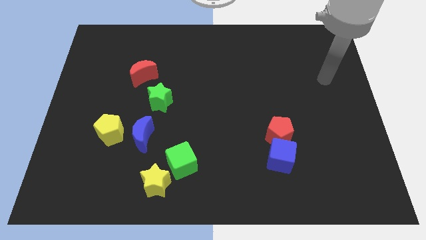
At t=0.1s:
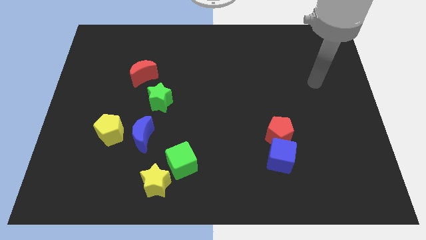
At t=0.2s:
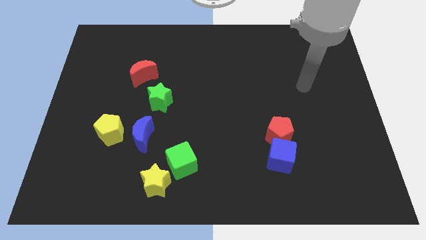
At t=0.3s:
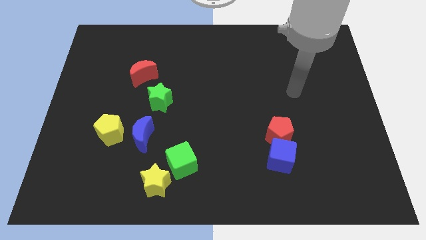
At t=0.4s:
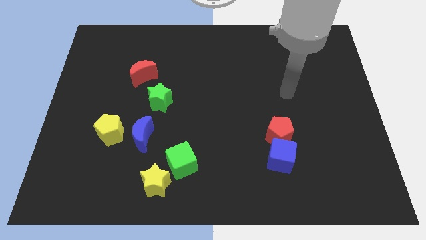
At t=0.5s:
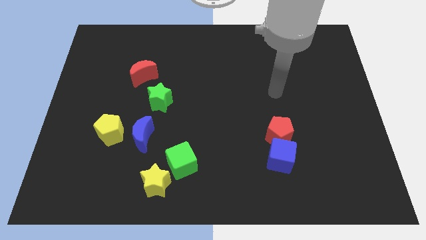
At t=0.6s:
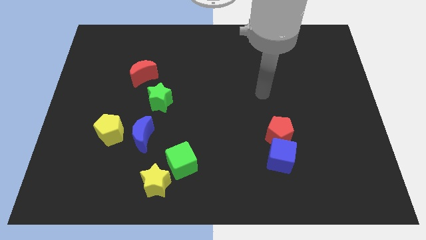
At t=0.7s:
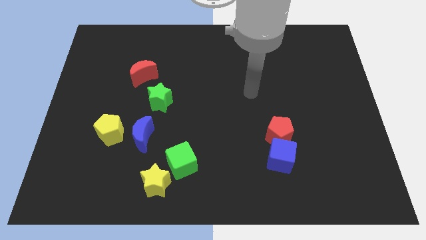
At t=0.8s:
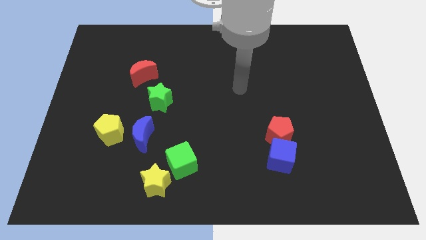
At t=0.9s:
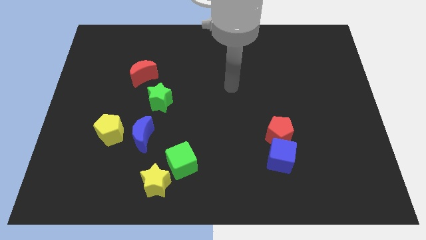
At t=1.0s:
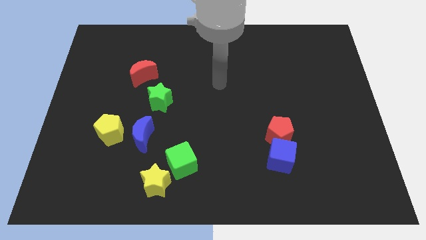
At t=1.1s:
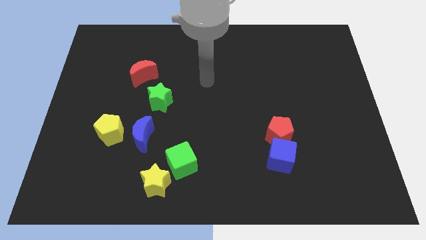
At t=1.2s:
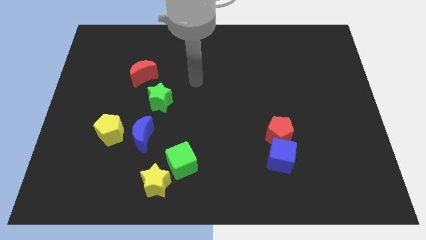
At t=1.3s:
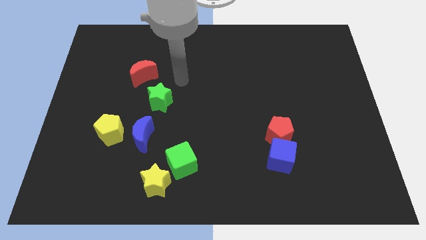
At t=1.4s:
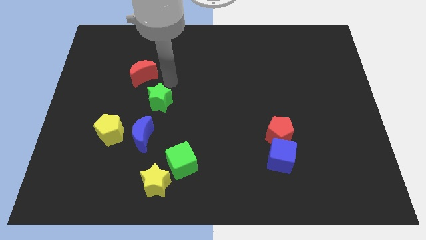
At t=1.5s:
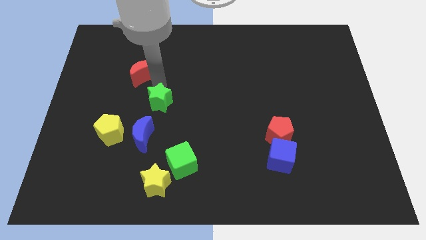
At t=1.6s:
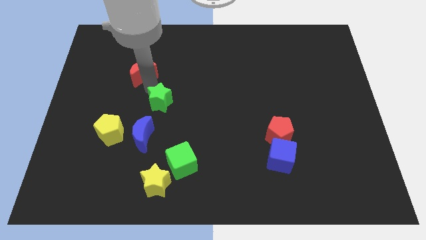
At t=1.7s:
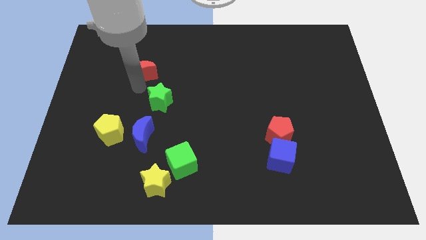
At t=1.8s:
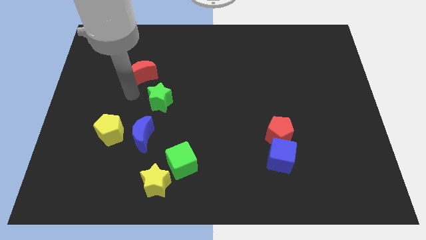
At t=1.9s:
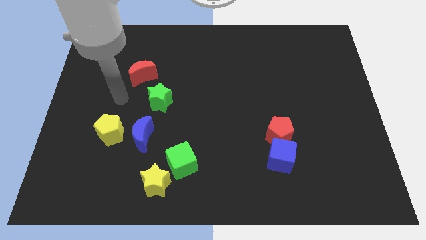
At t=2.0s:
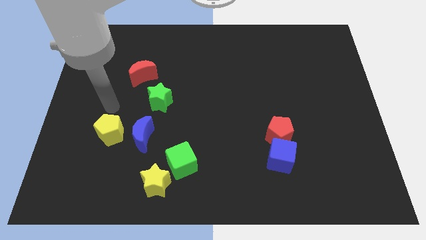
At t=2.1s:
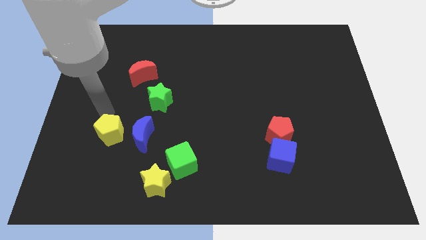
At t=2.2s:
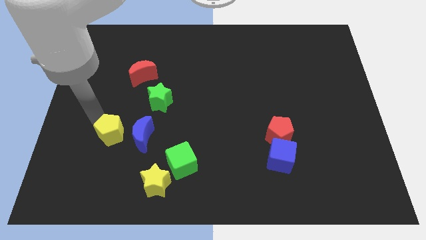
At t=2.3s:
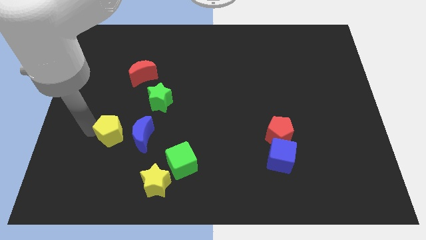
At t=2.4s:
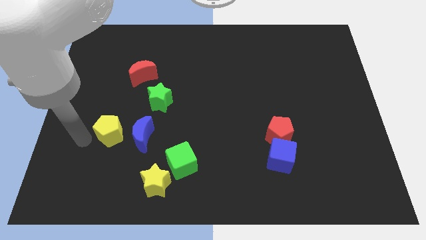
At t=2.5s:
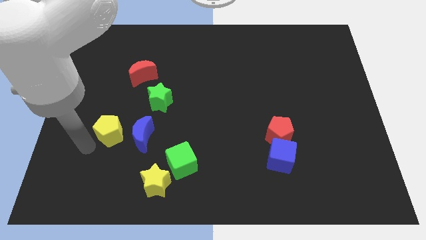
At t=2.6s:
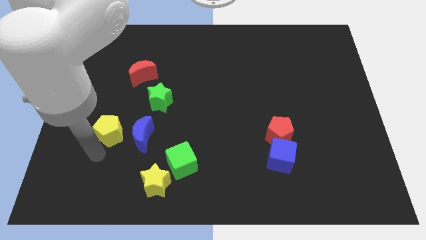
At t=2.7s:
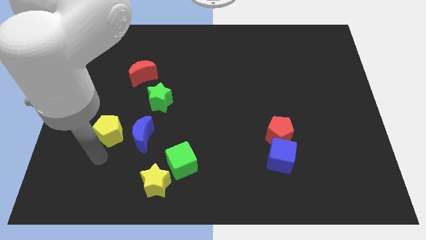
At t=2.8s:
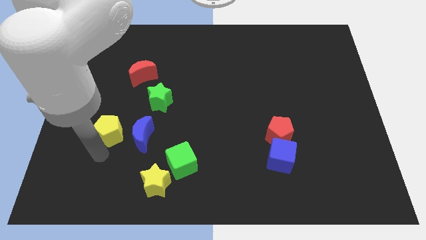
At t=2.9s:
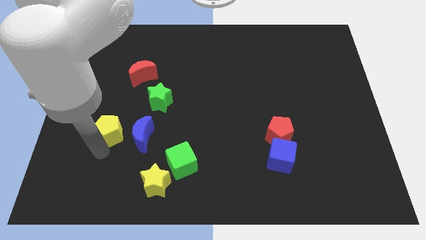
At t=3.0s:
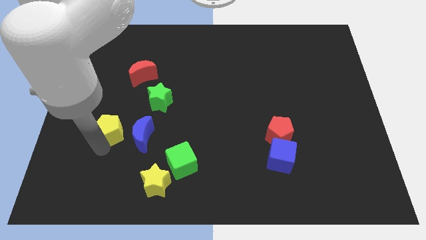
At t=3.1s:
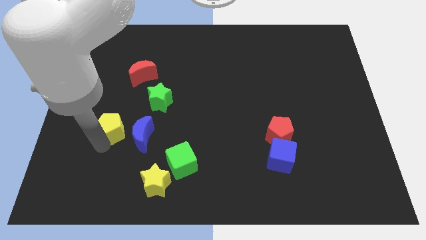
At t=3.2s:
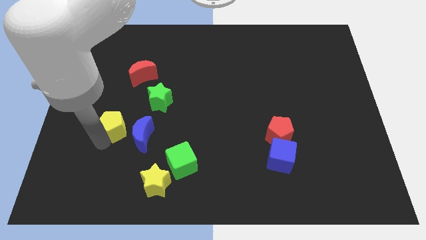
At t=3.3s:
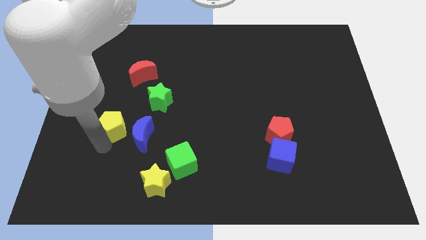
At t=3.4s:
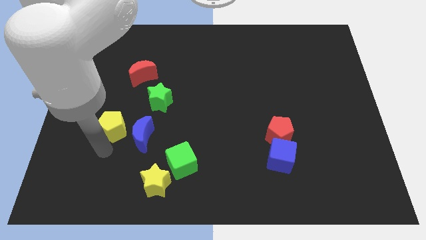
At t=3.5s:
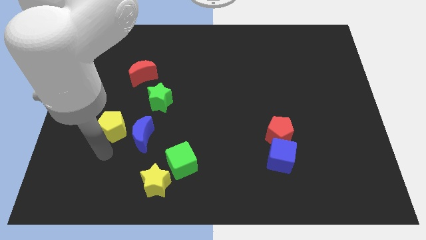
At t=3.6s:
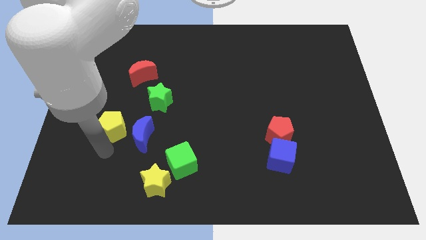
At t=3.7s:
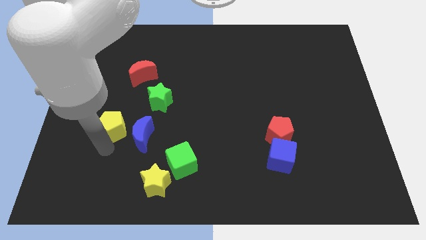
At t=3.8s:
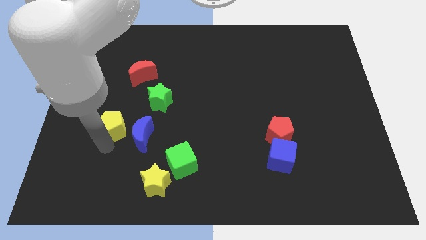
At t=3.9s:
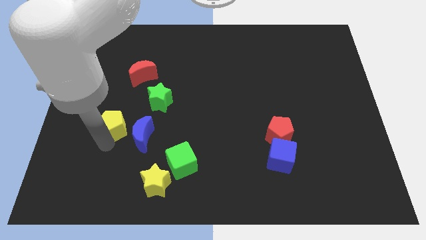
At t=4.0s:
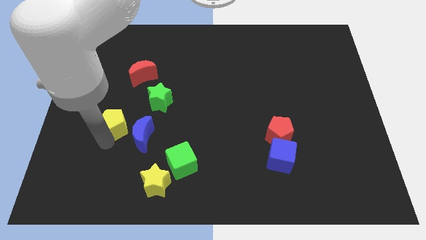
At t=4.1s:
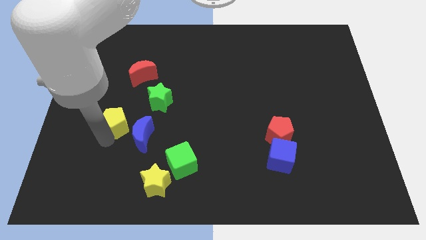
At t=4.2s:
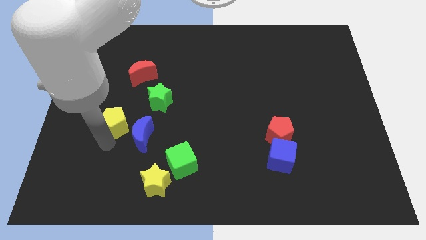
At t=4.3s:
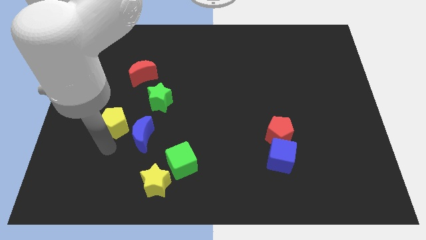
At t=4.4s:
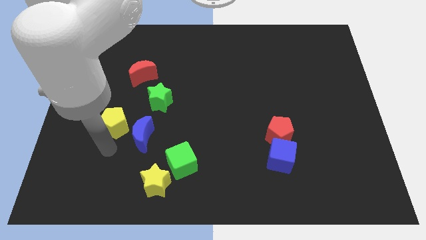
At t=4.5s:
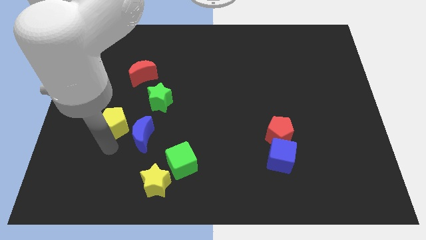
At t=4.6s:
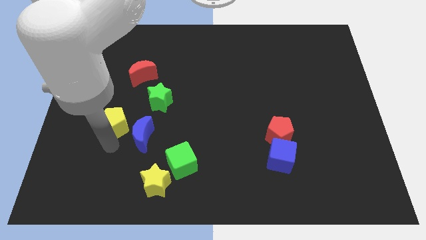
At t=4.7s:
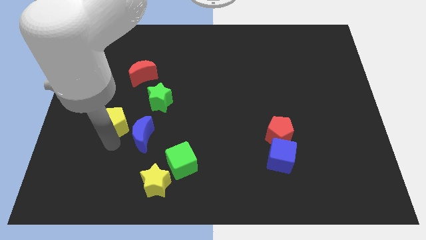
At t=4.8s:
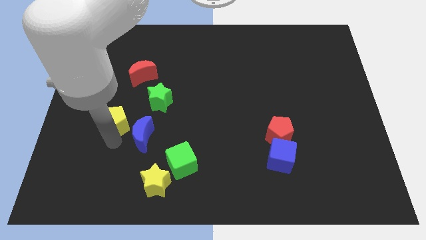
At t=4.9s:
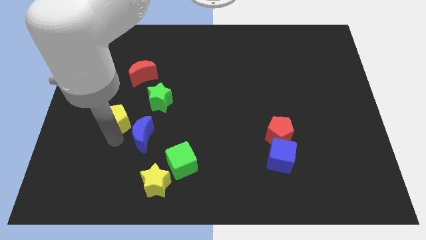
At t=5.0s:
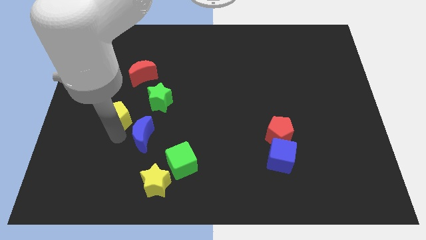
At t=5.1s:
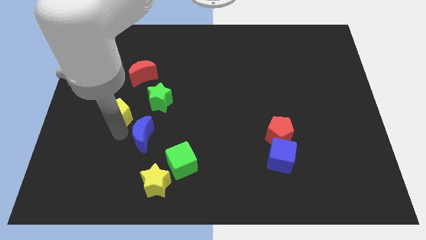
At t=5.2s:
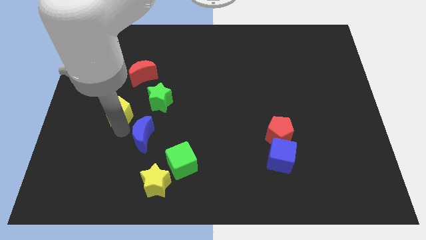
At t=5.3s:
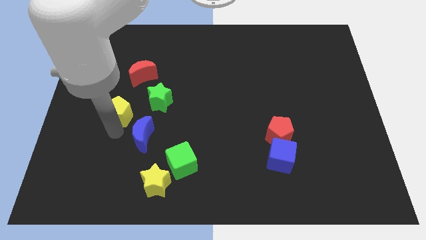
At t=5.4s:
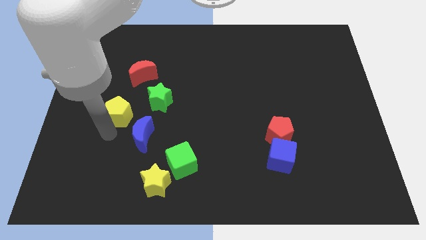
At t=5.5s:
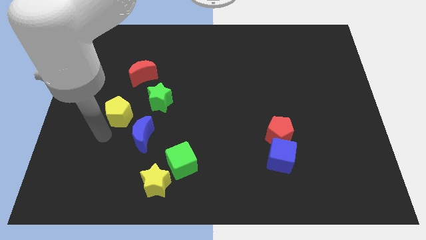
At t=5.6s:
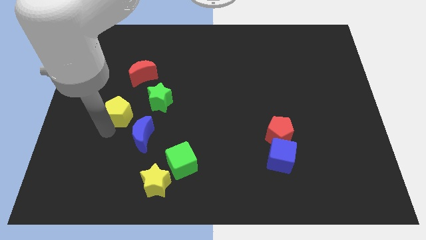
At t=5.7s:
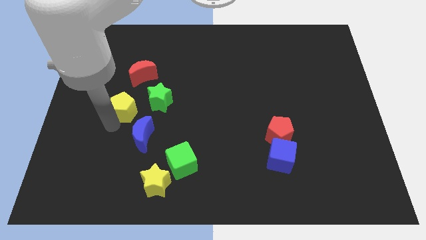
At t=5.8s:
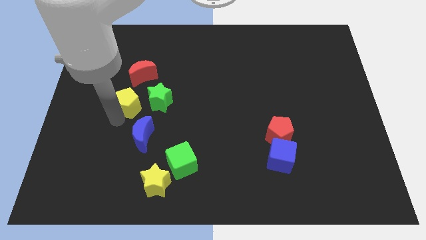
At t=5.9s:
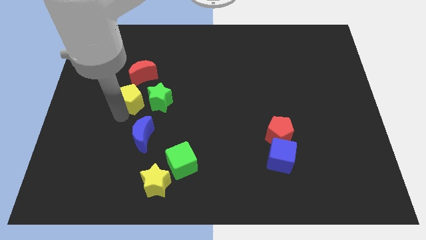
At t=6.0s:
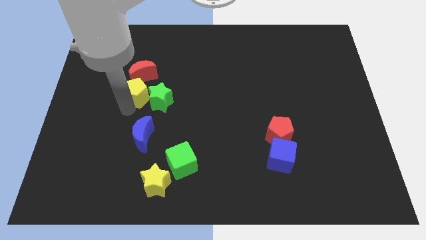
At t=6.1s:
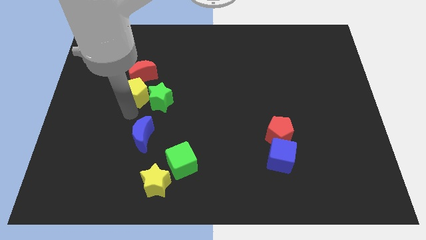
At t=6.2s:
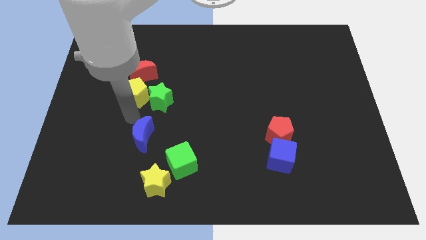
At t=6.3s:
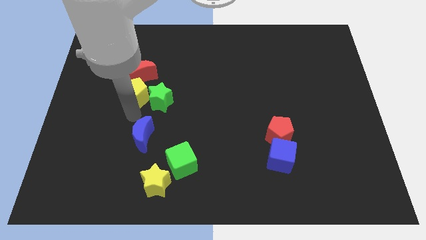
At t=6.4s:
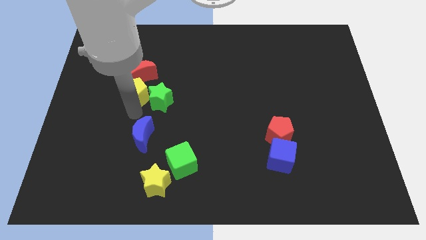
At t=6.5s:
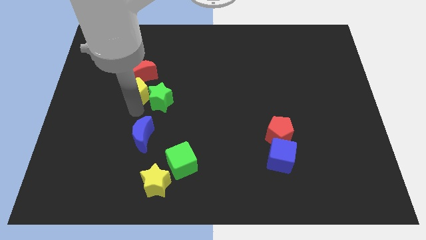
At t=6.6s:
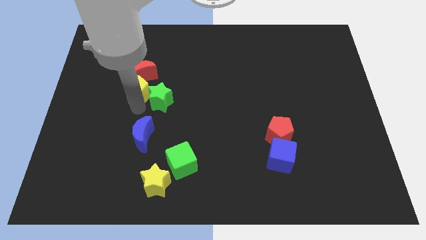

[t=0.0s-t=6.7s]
move the yellow pentagon next to the red moon
